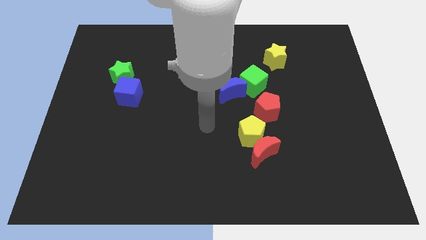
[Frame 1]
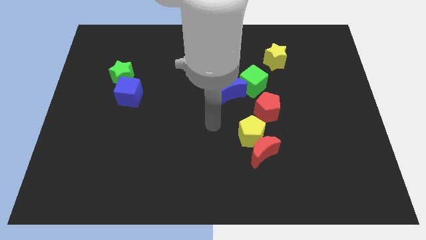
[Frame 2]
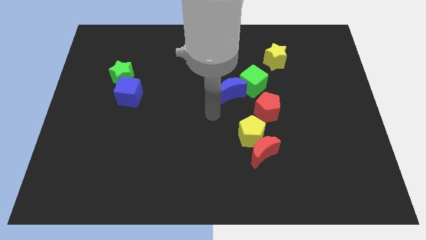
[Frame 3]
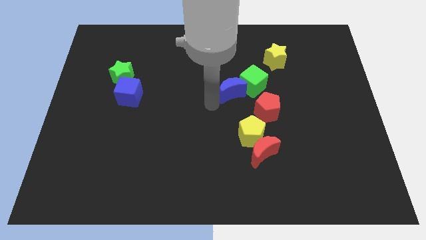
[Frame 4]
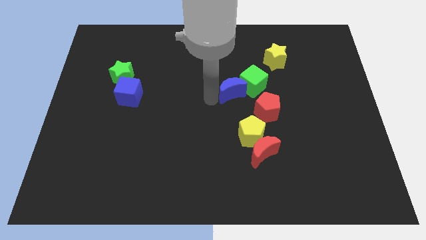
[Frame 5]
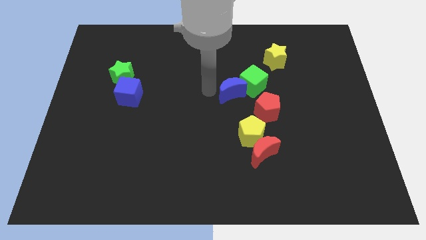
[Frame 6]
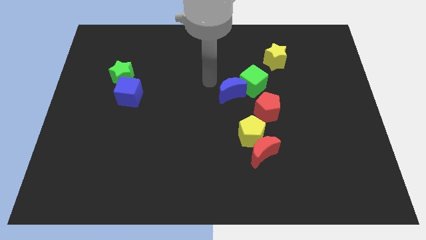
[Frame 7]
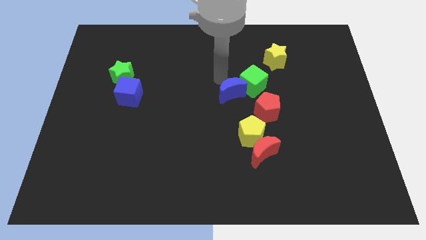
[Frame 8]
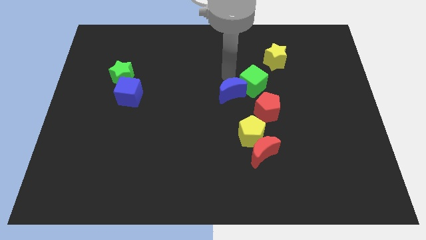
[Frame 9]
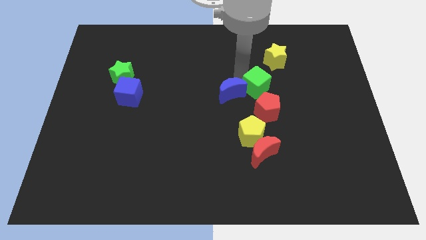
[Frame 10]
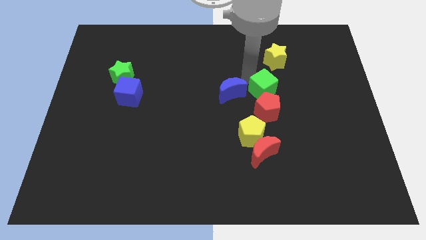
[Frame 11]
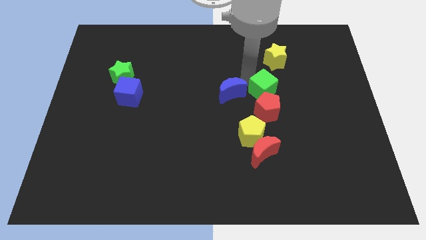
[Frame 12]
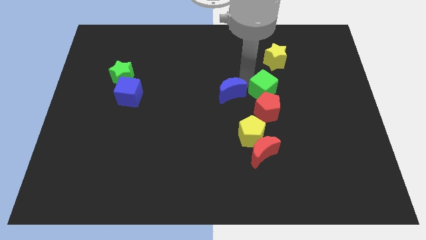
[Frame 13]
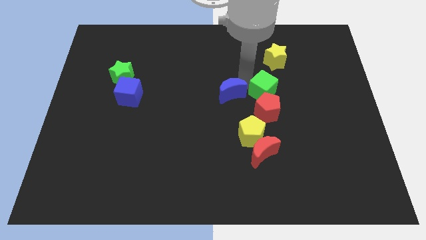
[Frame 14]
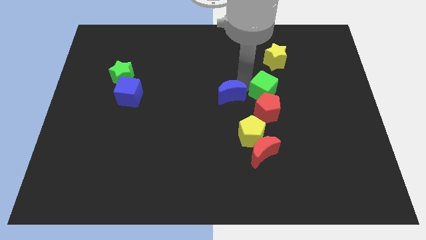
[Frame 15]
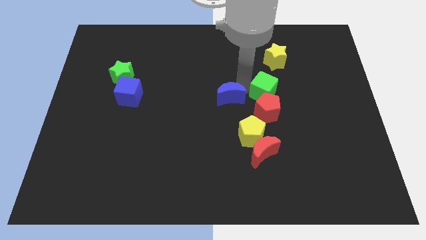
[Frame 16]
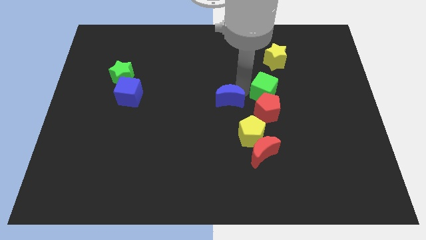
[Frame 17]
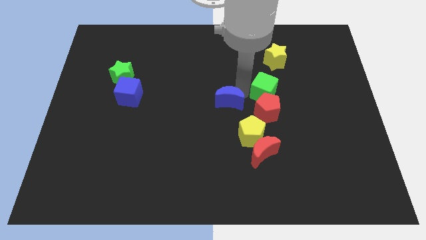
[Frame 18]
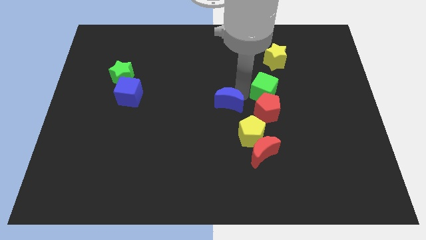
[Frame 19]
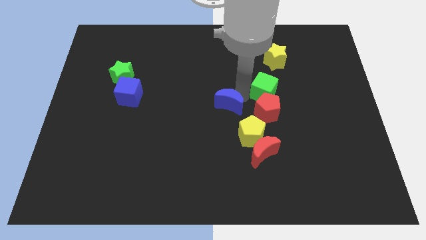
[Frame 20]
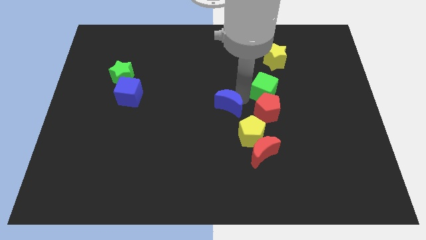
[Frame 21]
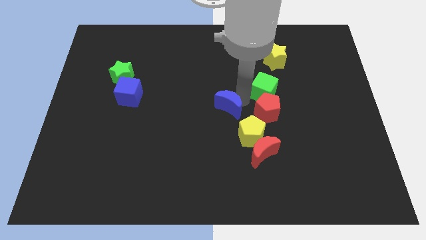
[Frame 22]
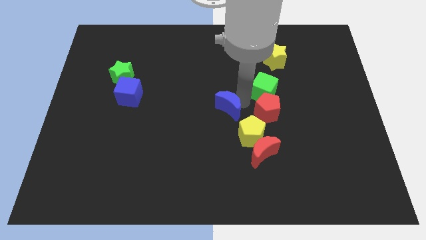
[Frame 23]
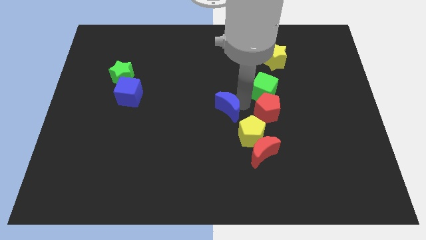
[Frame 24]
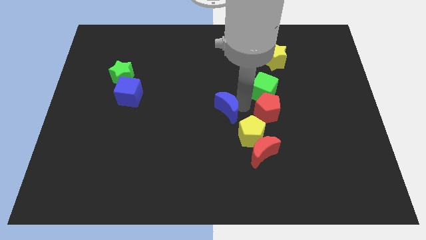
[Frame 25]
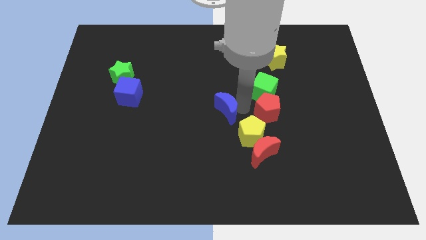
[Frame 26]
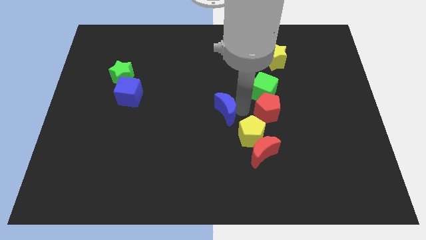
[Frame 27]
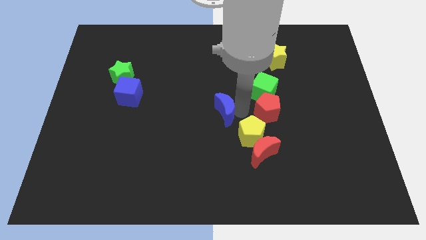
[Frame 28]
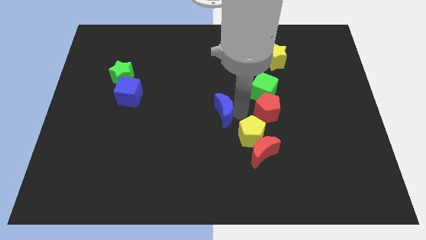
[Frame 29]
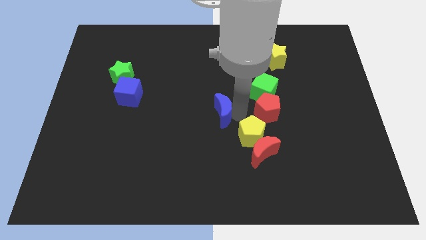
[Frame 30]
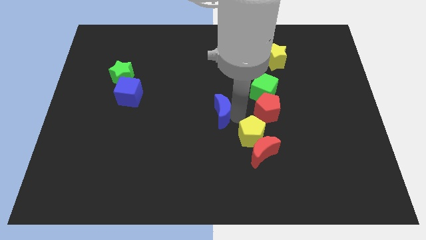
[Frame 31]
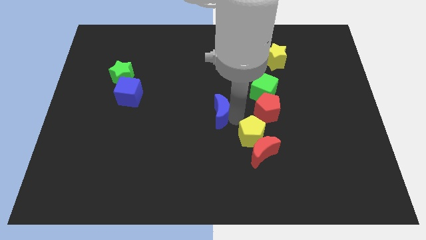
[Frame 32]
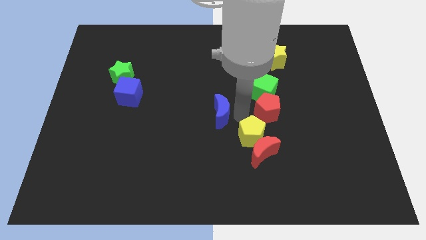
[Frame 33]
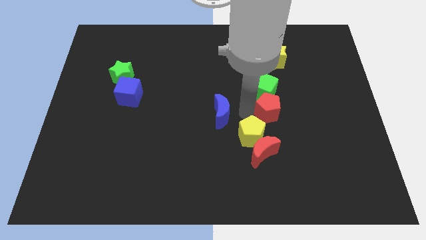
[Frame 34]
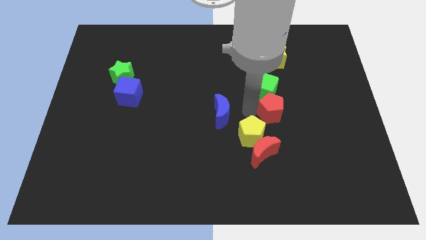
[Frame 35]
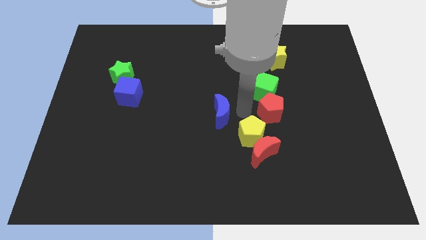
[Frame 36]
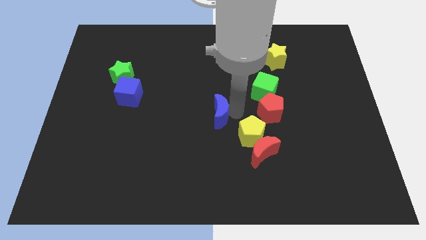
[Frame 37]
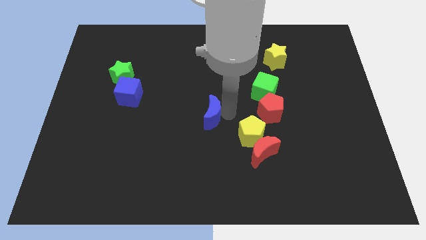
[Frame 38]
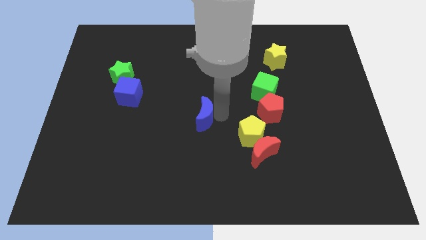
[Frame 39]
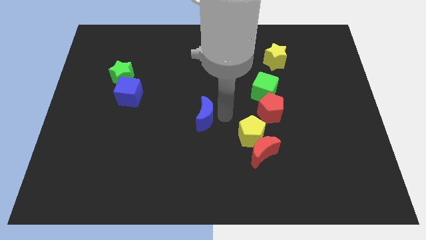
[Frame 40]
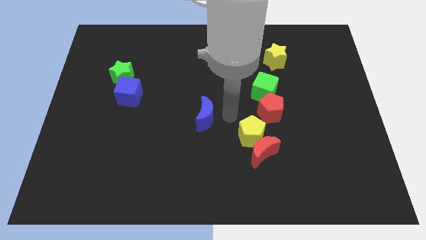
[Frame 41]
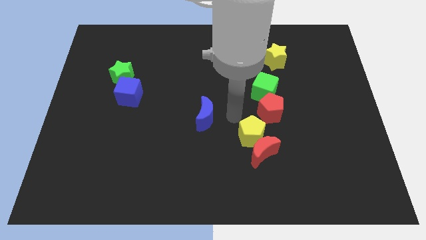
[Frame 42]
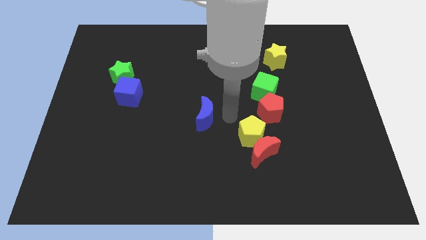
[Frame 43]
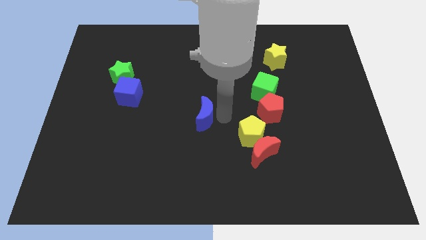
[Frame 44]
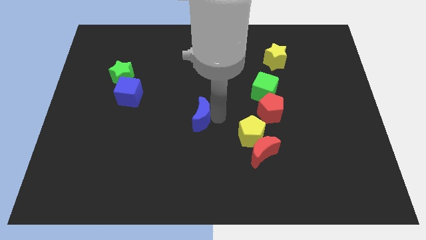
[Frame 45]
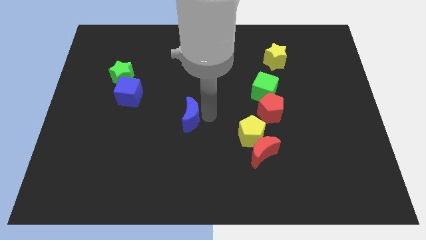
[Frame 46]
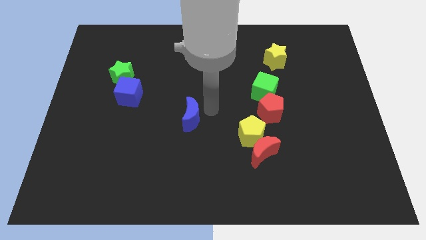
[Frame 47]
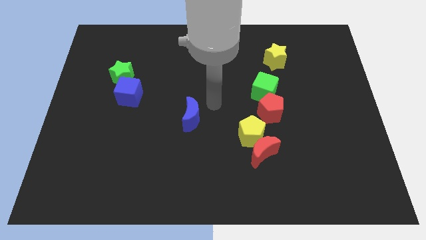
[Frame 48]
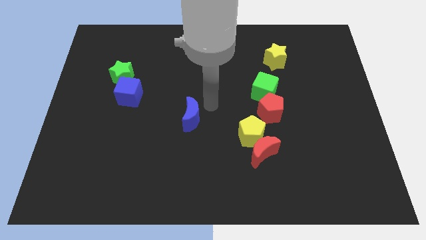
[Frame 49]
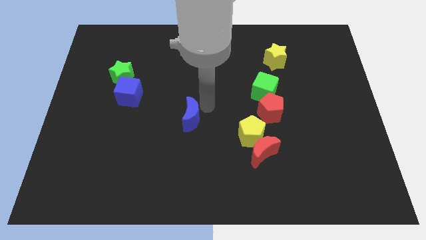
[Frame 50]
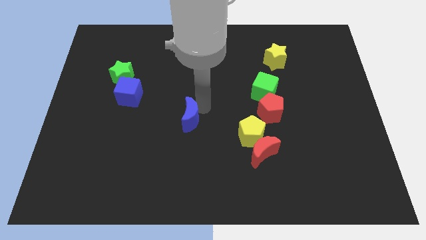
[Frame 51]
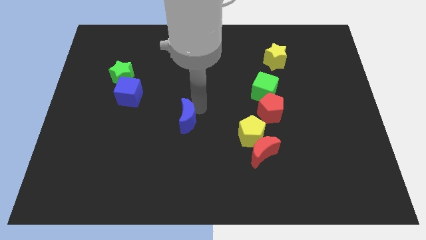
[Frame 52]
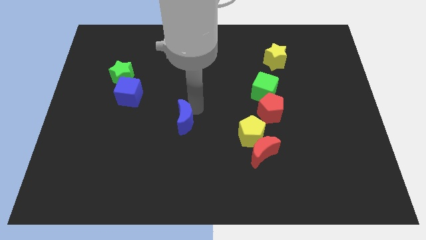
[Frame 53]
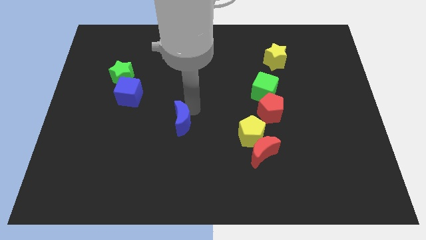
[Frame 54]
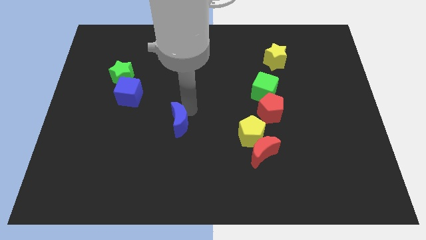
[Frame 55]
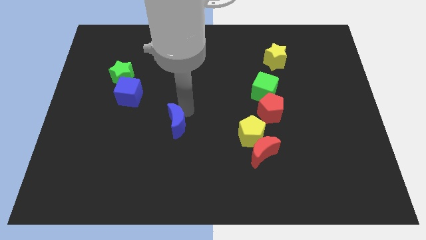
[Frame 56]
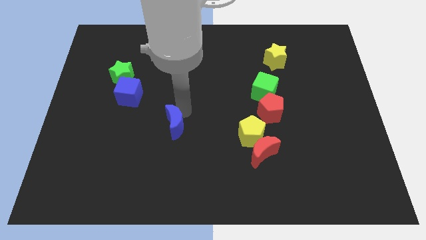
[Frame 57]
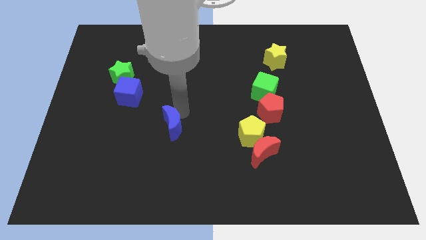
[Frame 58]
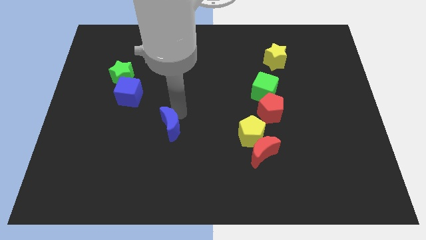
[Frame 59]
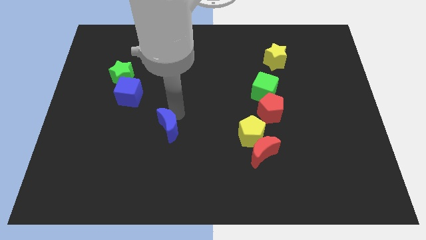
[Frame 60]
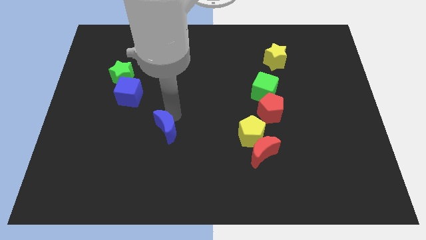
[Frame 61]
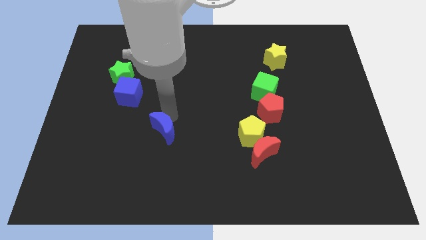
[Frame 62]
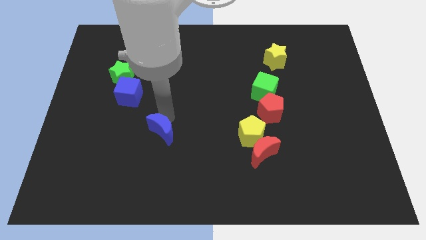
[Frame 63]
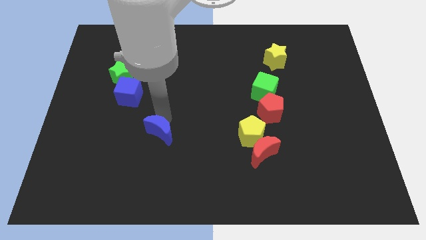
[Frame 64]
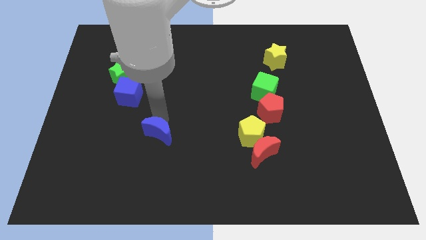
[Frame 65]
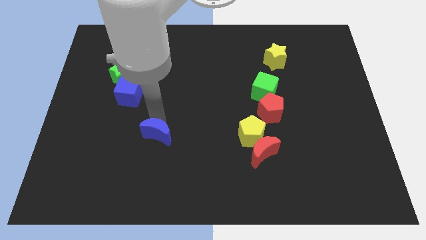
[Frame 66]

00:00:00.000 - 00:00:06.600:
move the blue moon down and to the left

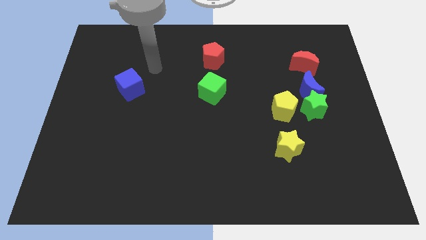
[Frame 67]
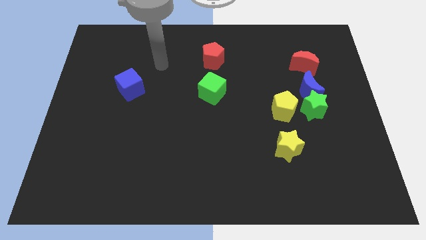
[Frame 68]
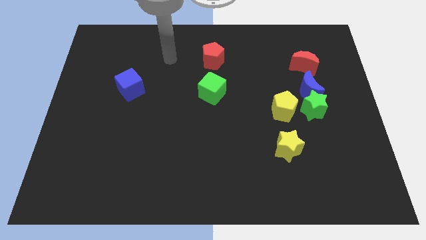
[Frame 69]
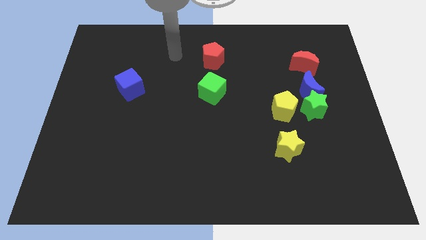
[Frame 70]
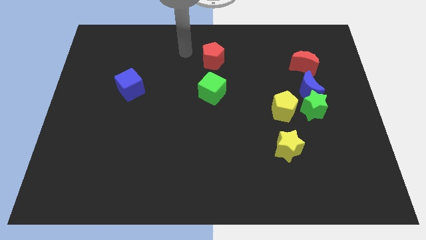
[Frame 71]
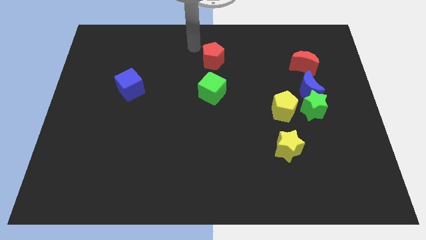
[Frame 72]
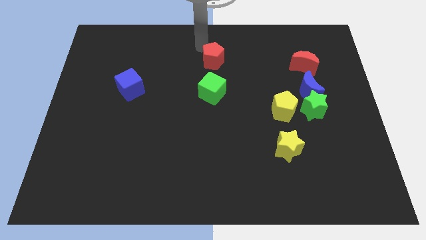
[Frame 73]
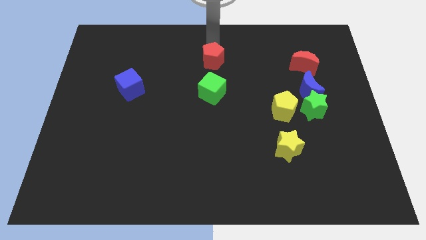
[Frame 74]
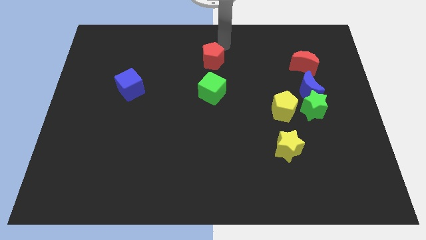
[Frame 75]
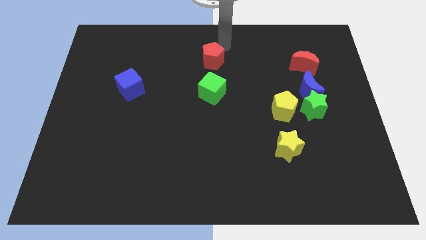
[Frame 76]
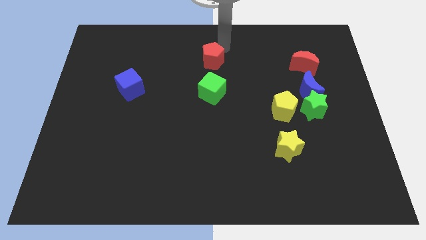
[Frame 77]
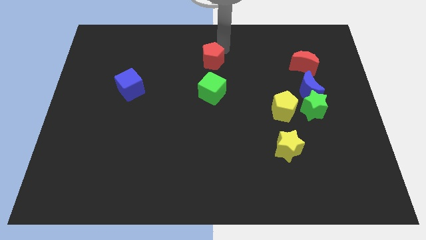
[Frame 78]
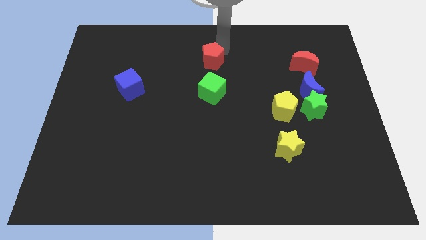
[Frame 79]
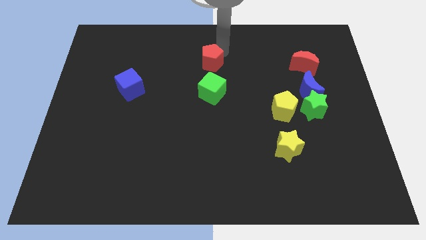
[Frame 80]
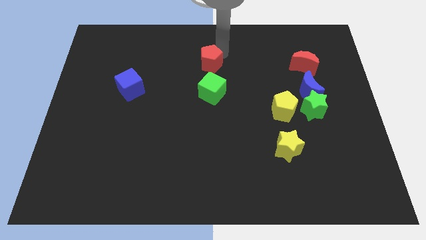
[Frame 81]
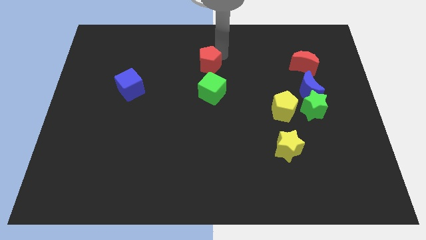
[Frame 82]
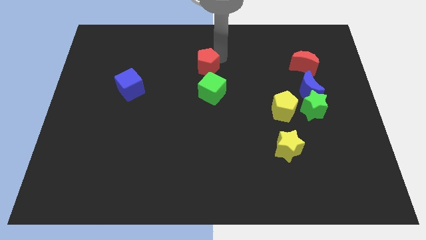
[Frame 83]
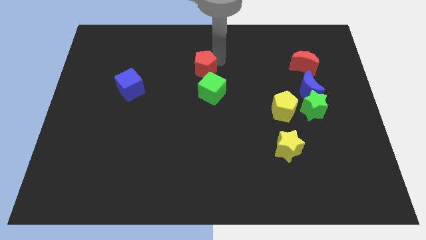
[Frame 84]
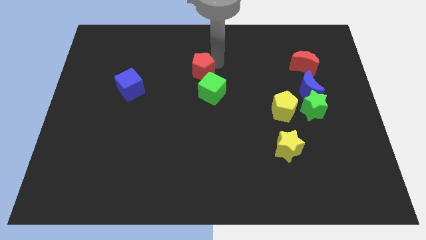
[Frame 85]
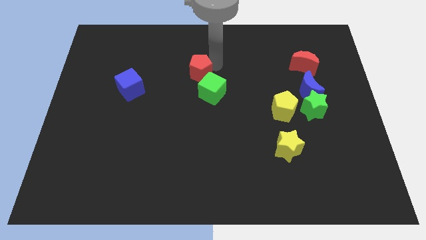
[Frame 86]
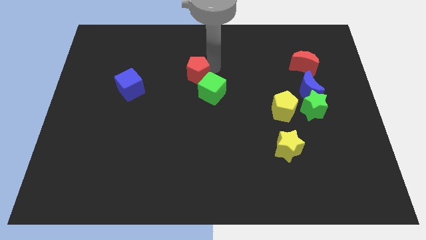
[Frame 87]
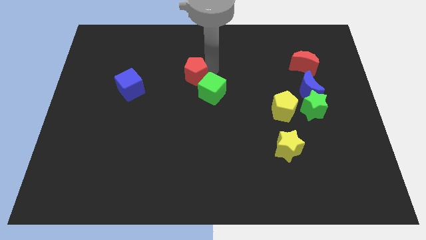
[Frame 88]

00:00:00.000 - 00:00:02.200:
move the red pentagon downwards and then left a bit
